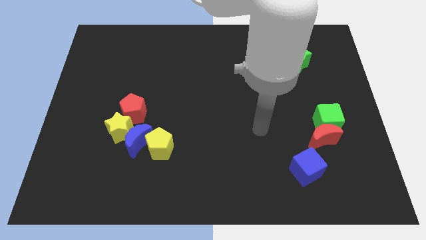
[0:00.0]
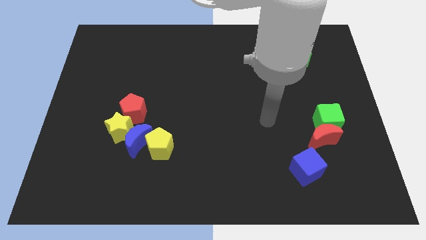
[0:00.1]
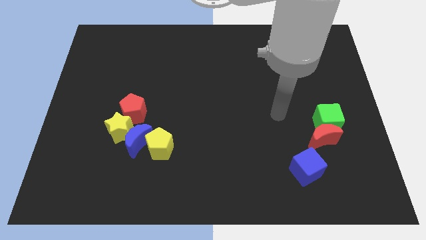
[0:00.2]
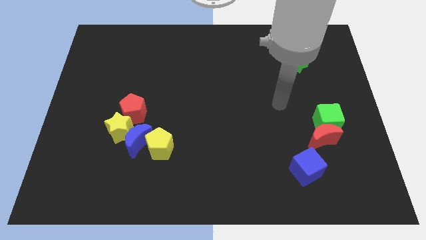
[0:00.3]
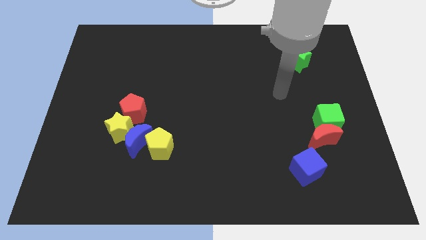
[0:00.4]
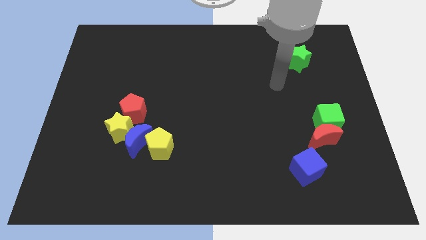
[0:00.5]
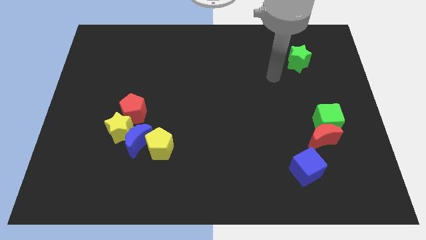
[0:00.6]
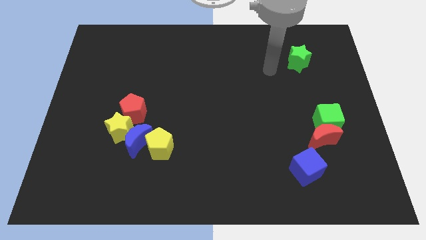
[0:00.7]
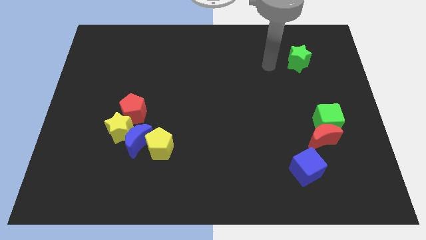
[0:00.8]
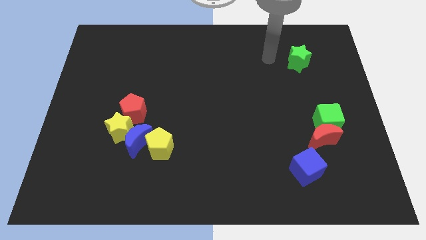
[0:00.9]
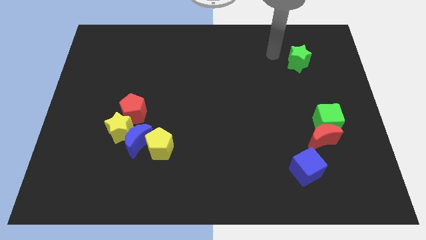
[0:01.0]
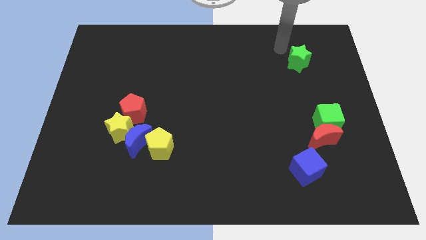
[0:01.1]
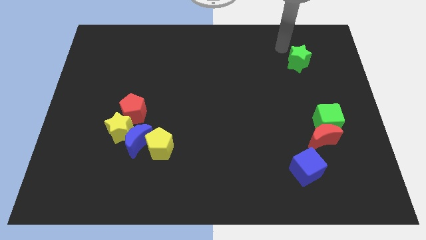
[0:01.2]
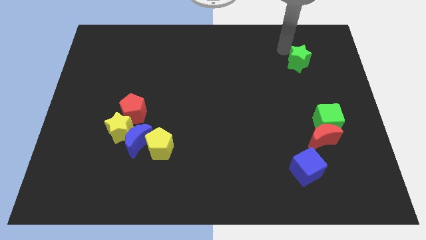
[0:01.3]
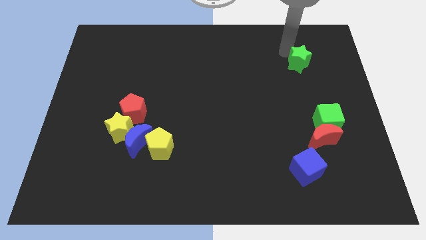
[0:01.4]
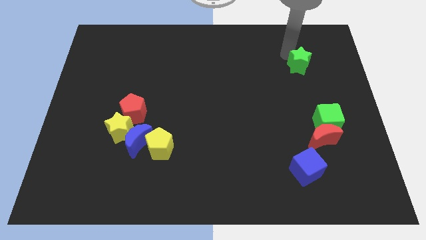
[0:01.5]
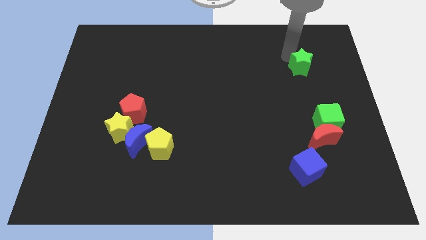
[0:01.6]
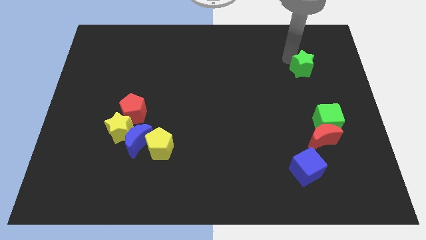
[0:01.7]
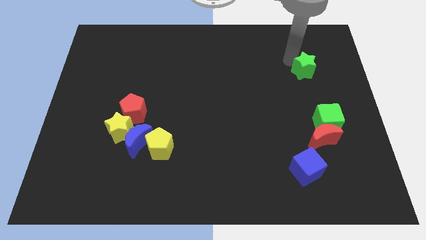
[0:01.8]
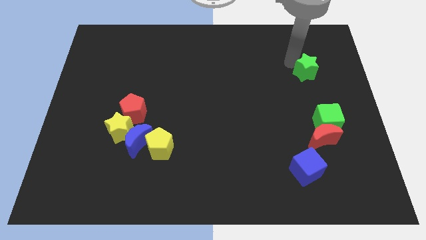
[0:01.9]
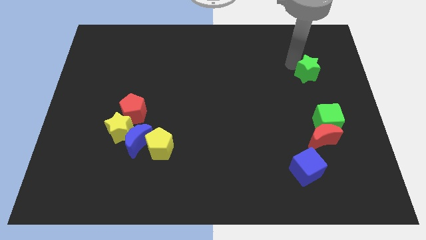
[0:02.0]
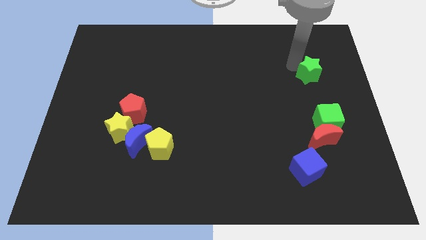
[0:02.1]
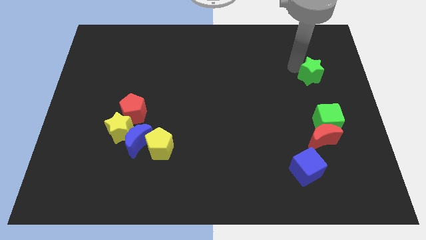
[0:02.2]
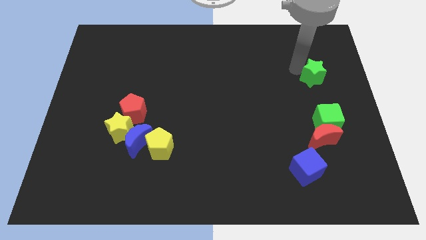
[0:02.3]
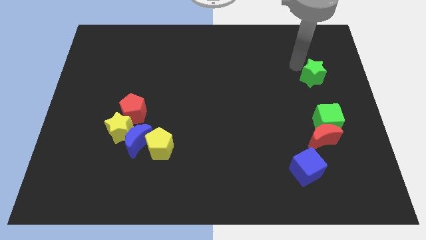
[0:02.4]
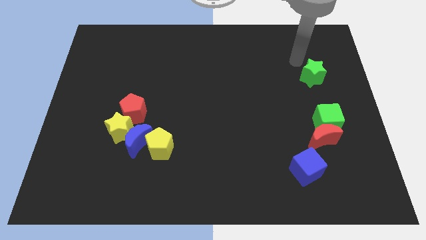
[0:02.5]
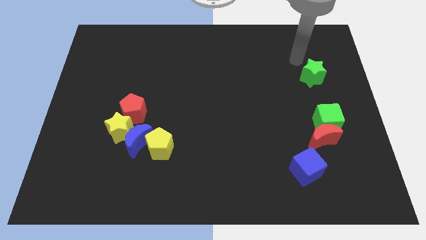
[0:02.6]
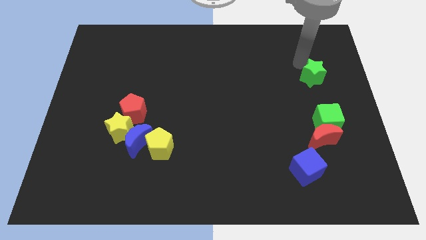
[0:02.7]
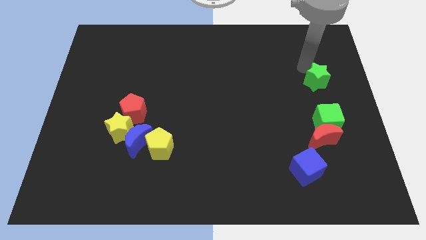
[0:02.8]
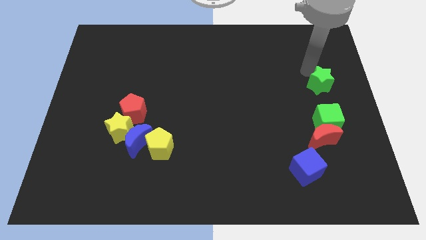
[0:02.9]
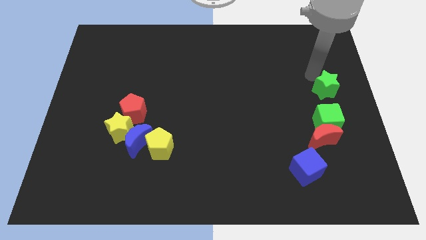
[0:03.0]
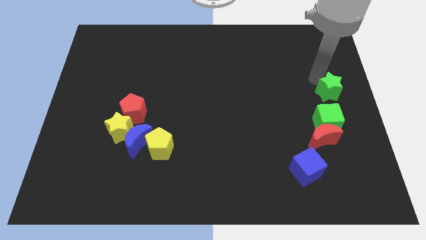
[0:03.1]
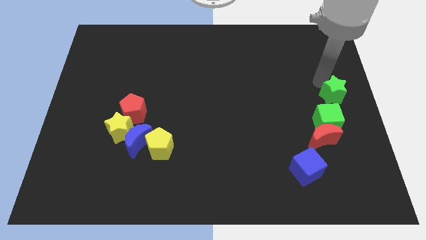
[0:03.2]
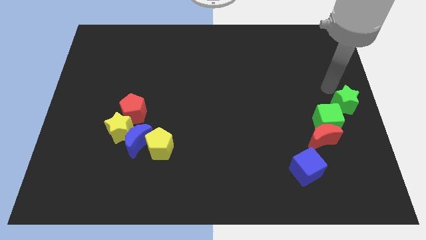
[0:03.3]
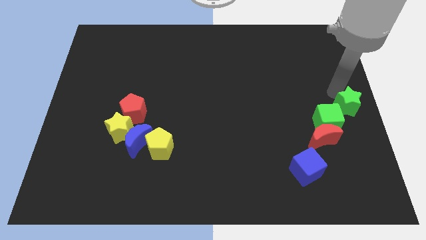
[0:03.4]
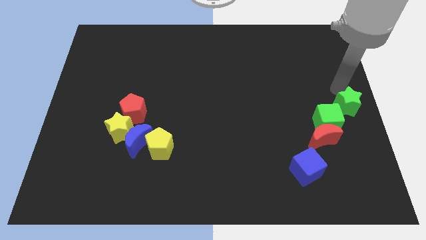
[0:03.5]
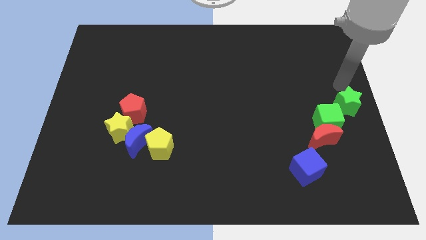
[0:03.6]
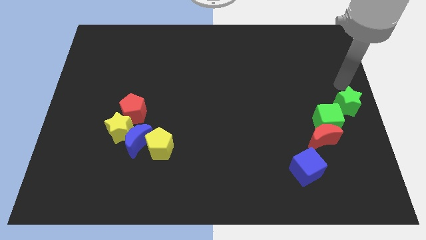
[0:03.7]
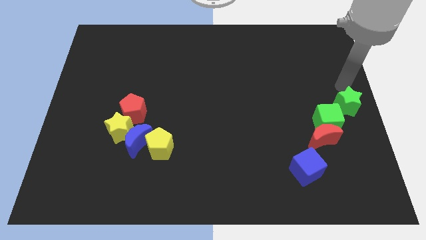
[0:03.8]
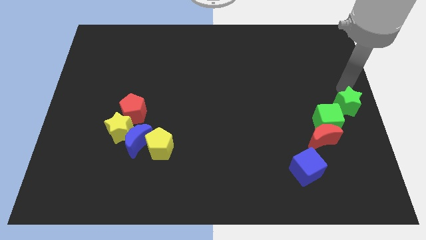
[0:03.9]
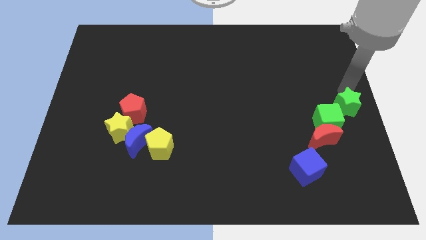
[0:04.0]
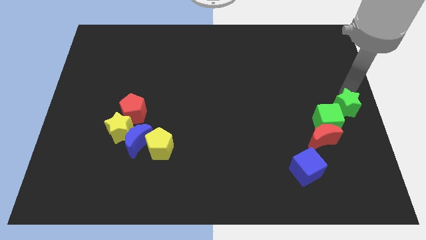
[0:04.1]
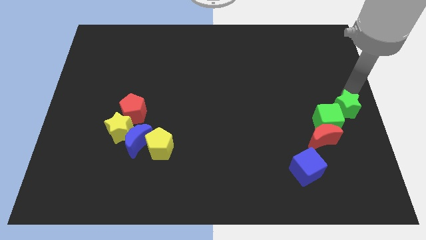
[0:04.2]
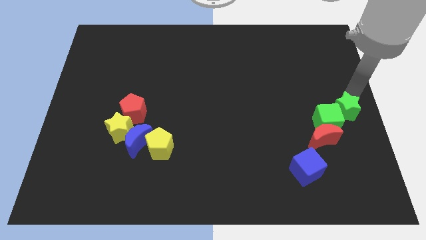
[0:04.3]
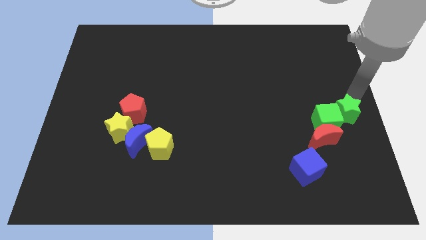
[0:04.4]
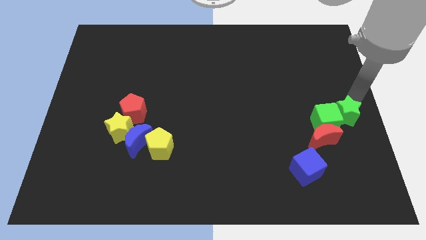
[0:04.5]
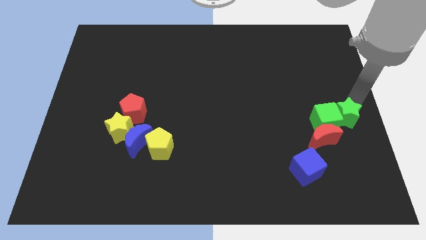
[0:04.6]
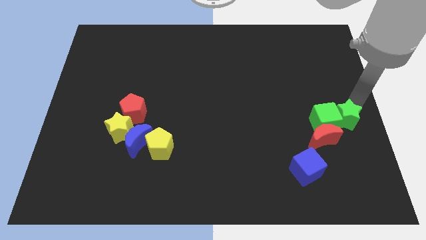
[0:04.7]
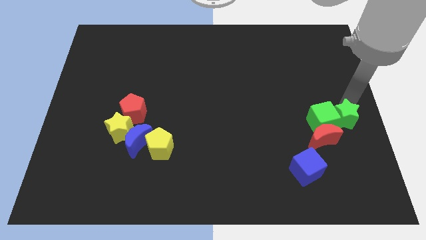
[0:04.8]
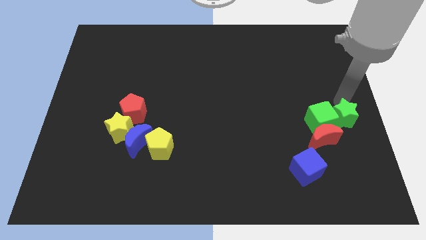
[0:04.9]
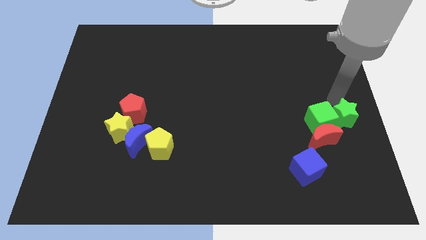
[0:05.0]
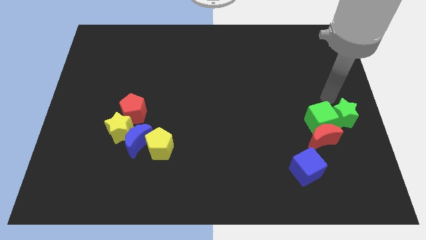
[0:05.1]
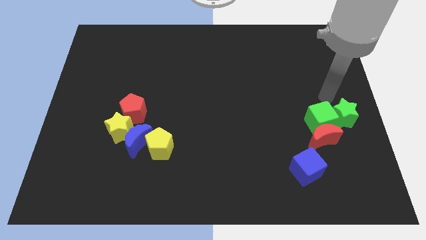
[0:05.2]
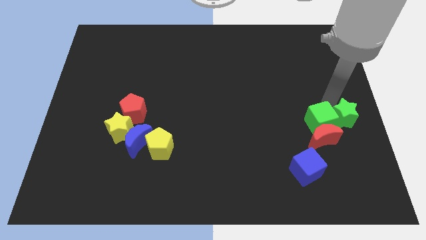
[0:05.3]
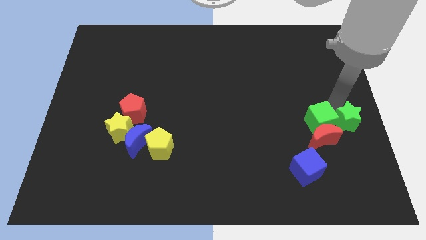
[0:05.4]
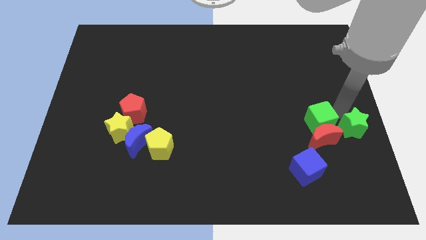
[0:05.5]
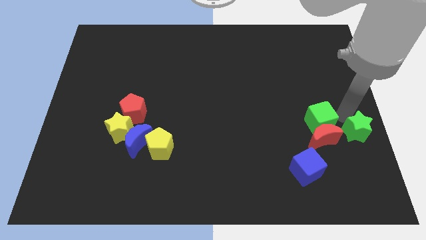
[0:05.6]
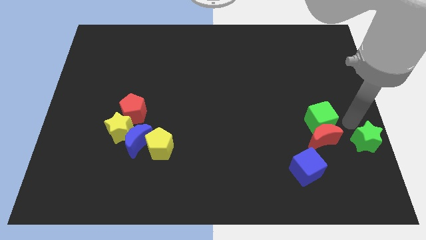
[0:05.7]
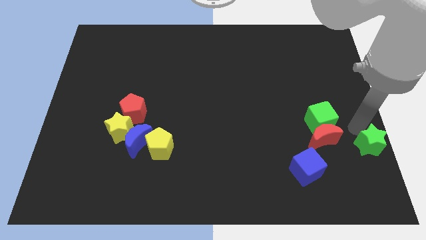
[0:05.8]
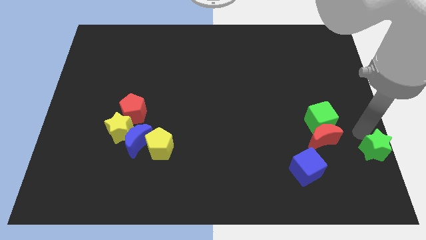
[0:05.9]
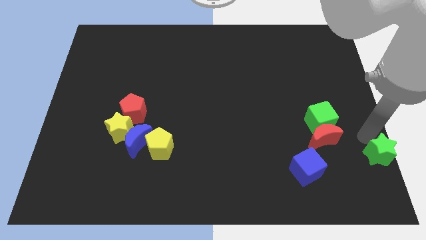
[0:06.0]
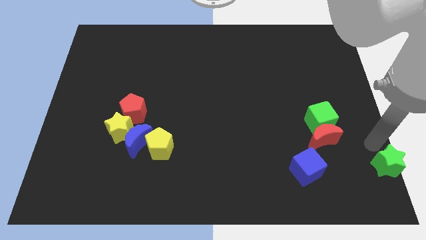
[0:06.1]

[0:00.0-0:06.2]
put the green star to the lower right corner
